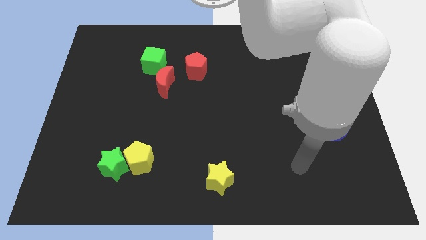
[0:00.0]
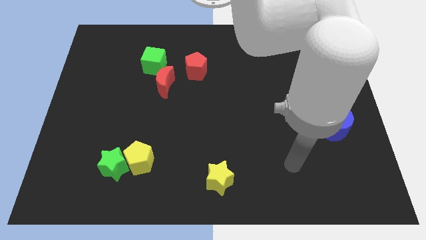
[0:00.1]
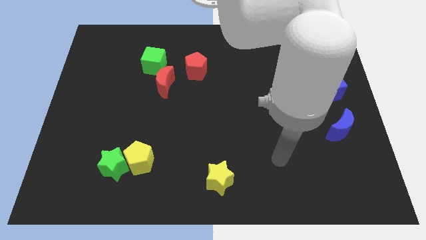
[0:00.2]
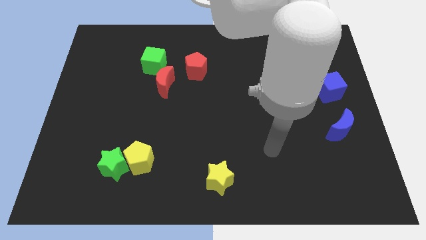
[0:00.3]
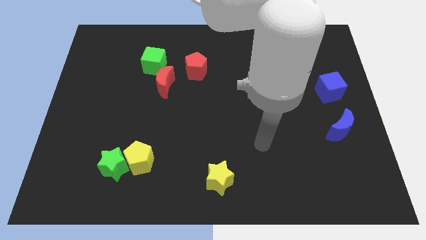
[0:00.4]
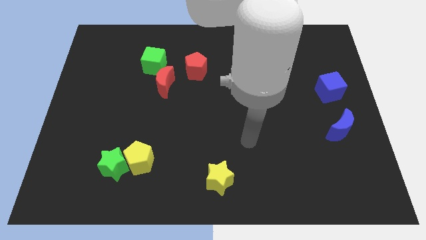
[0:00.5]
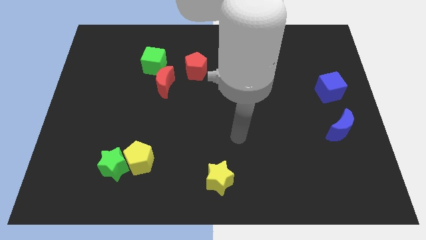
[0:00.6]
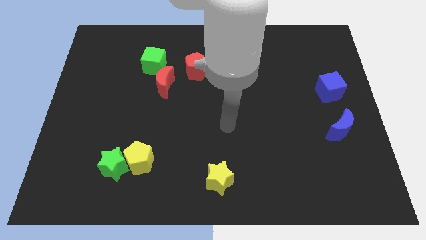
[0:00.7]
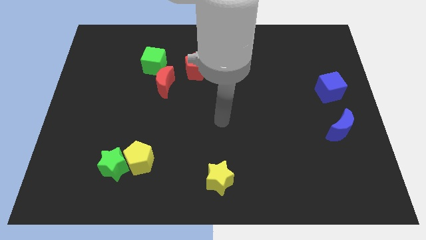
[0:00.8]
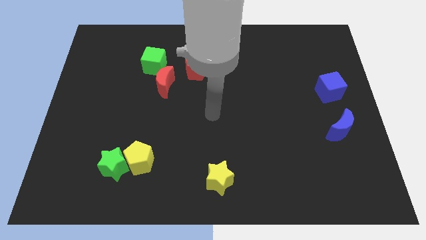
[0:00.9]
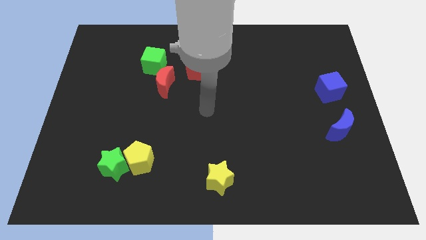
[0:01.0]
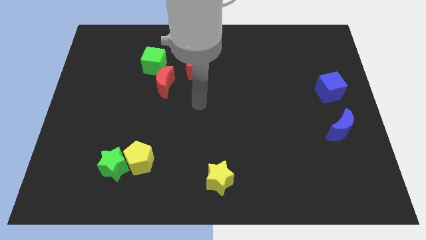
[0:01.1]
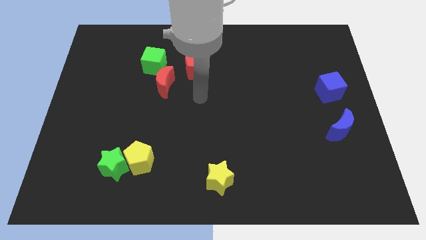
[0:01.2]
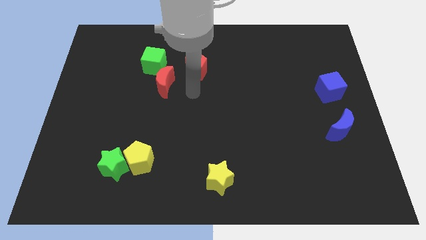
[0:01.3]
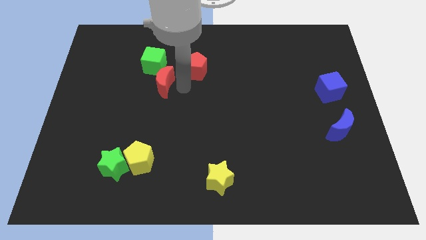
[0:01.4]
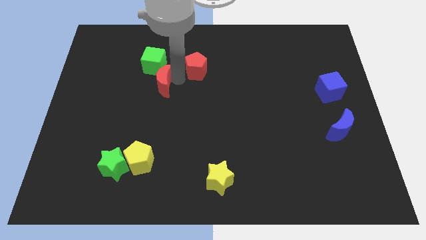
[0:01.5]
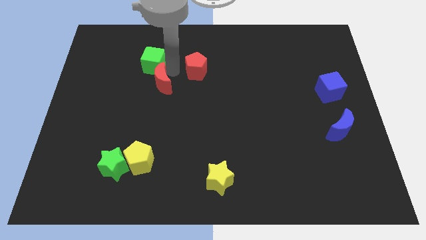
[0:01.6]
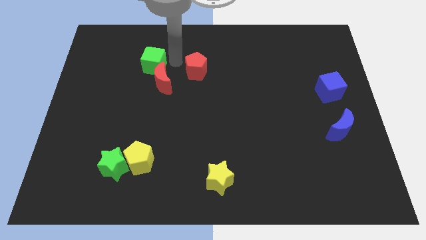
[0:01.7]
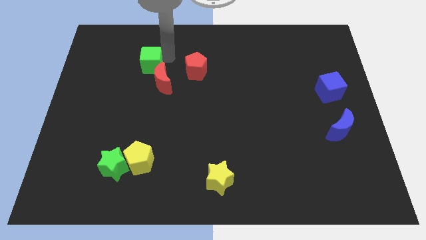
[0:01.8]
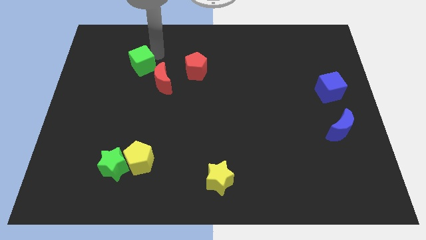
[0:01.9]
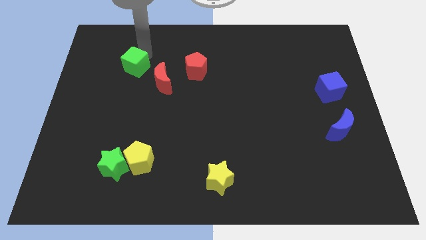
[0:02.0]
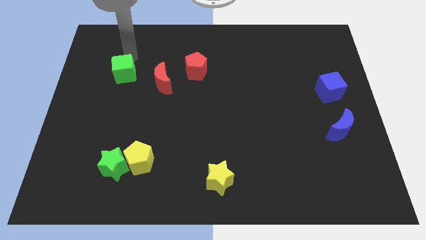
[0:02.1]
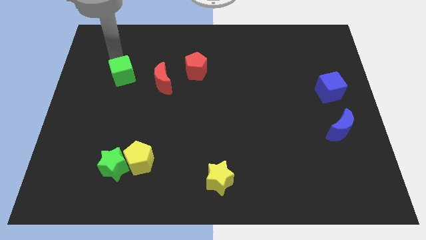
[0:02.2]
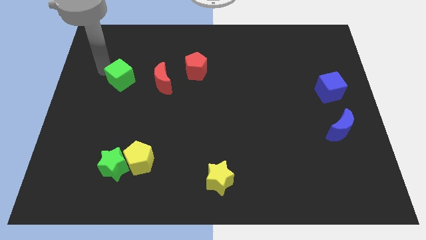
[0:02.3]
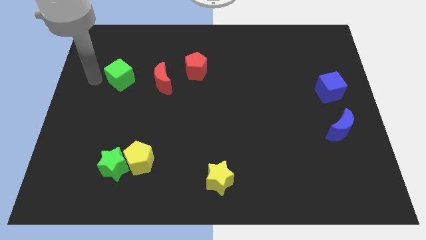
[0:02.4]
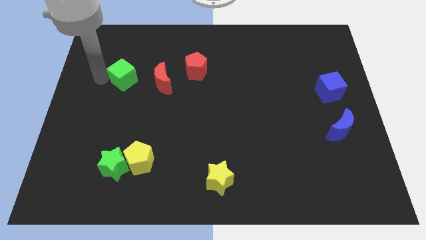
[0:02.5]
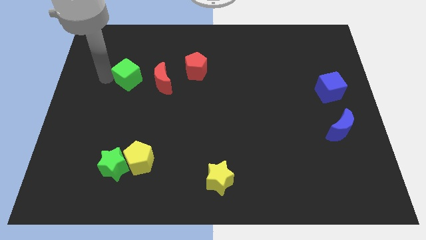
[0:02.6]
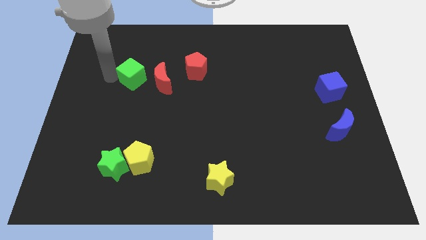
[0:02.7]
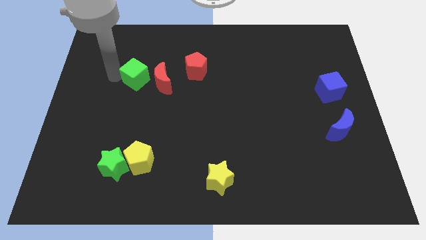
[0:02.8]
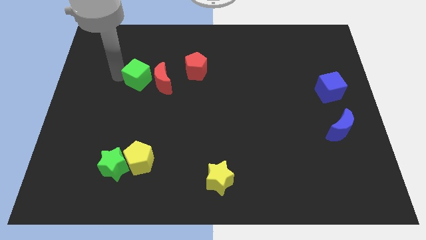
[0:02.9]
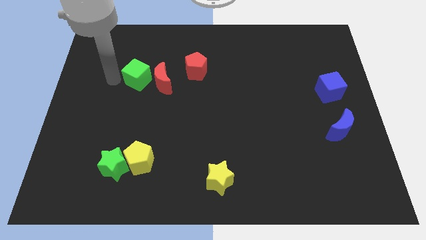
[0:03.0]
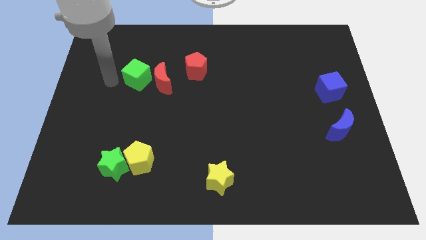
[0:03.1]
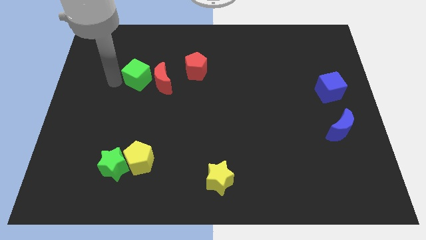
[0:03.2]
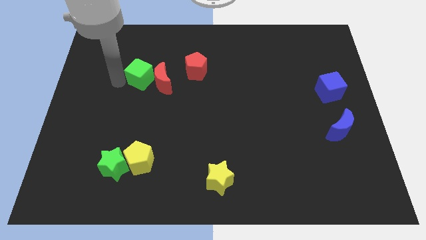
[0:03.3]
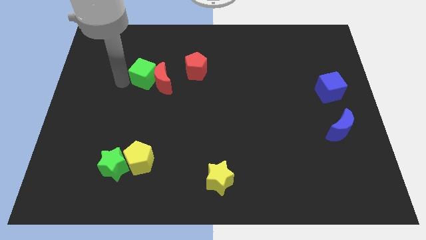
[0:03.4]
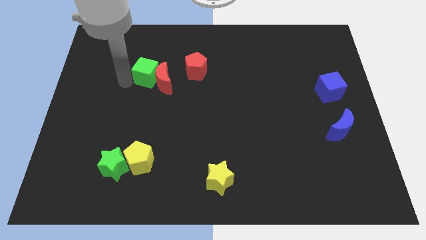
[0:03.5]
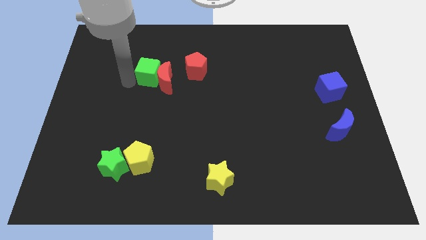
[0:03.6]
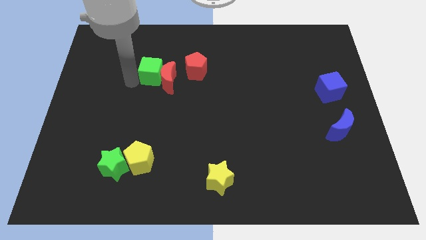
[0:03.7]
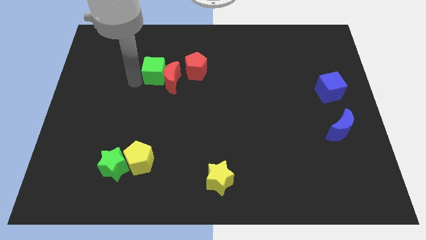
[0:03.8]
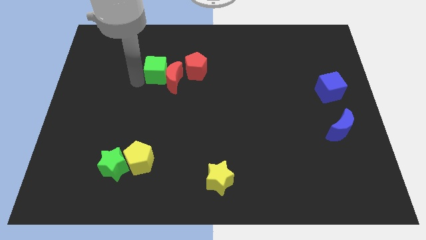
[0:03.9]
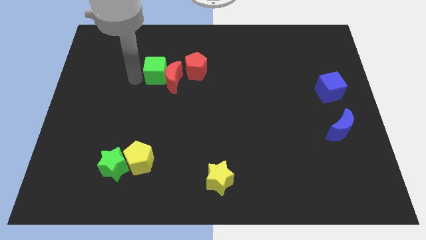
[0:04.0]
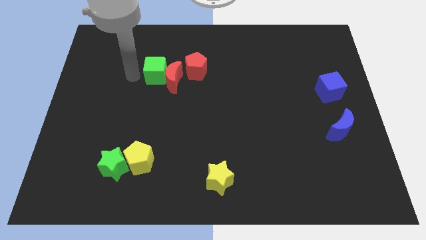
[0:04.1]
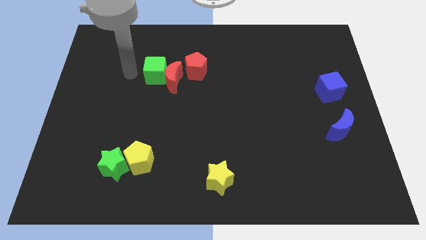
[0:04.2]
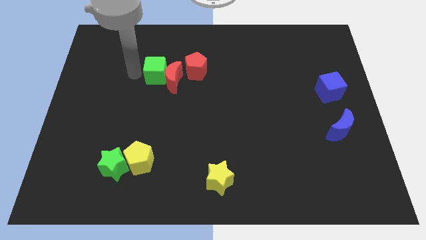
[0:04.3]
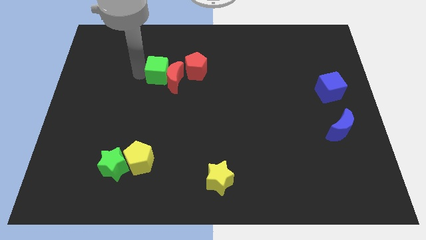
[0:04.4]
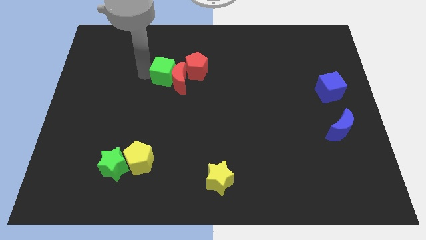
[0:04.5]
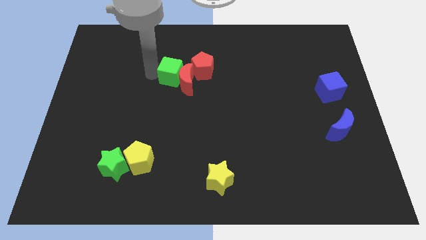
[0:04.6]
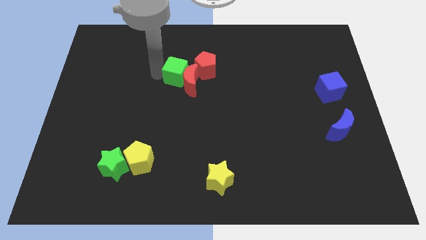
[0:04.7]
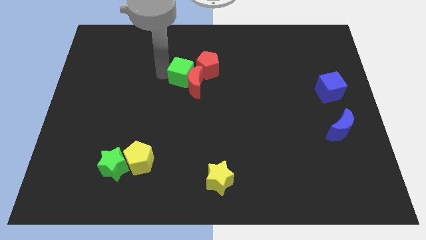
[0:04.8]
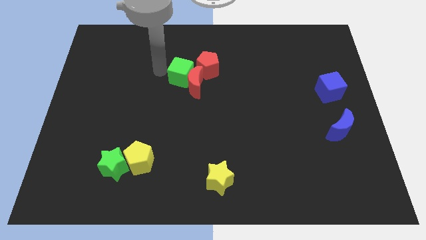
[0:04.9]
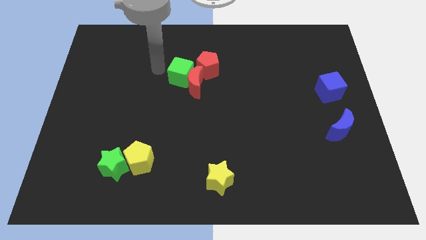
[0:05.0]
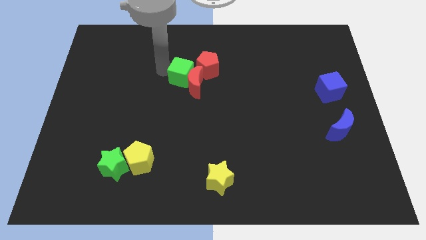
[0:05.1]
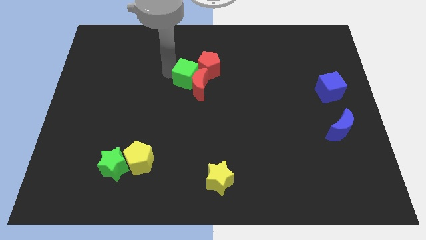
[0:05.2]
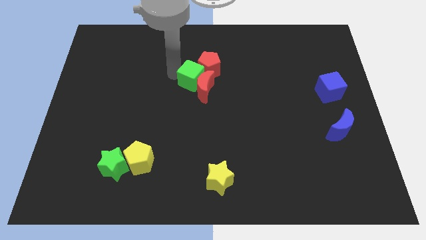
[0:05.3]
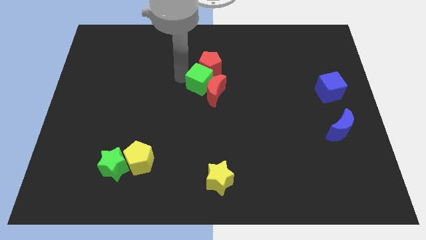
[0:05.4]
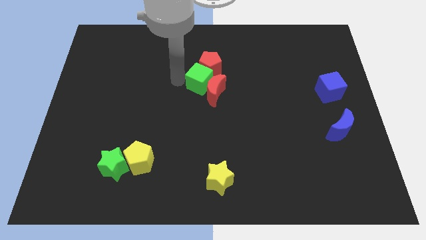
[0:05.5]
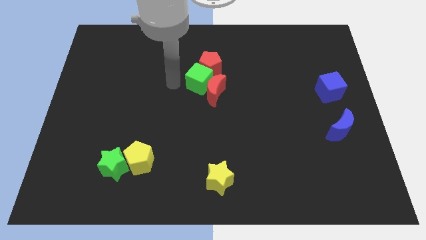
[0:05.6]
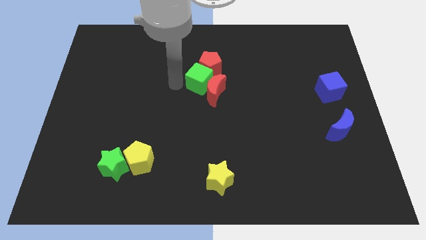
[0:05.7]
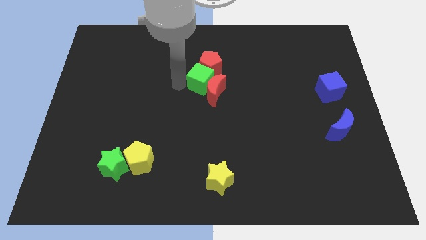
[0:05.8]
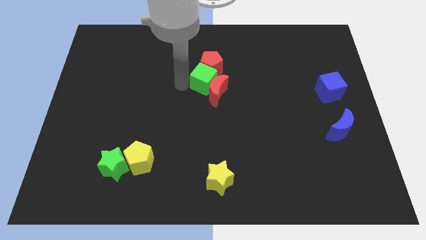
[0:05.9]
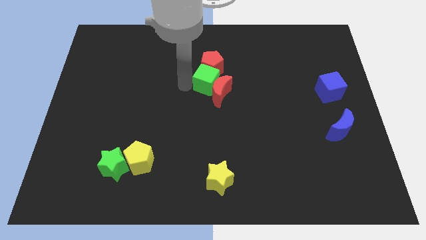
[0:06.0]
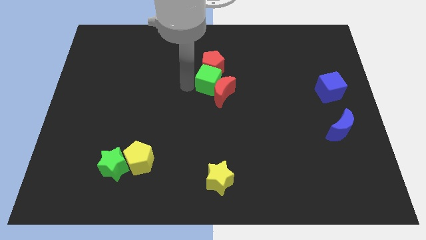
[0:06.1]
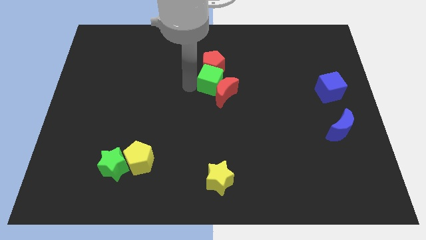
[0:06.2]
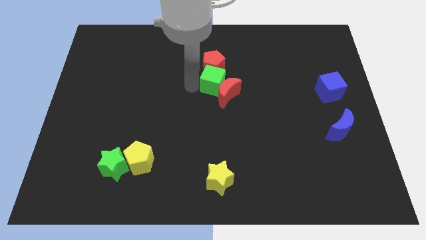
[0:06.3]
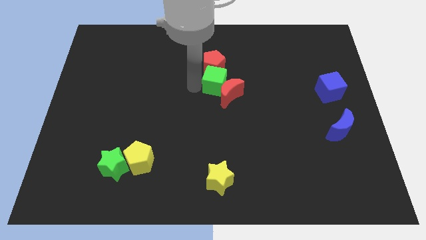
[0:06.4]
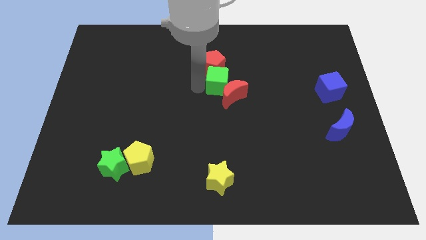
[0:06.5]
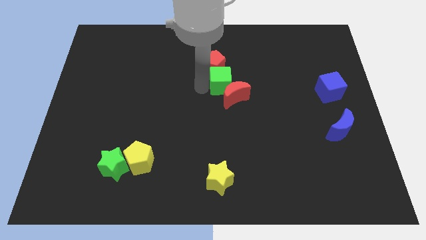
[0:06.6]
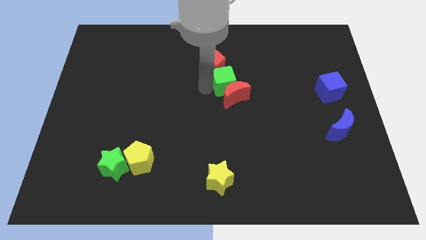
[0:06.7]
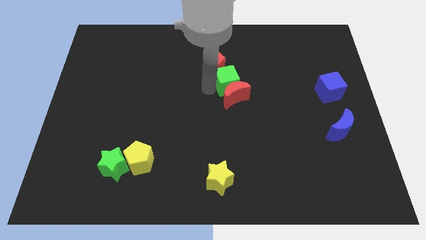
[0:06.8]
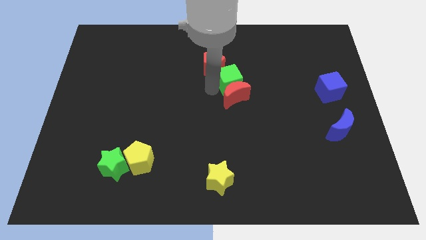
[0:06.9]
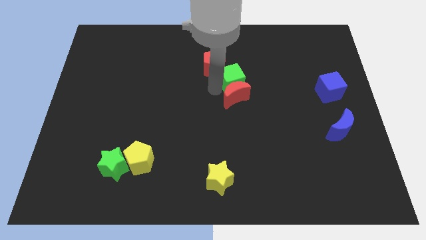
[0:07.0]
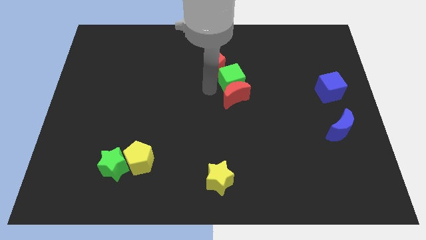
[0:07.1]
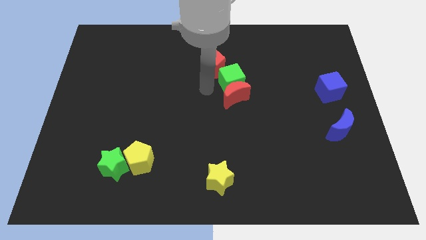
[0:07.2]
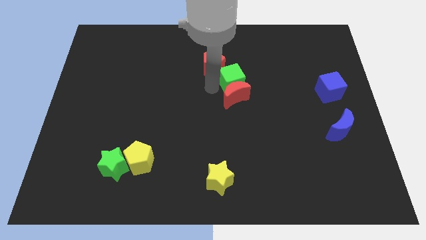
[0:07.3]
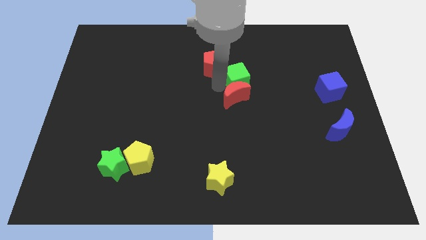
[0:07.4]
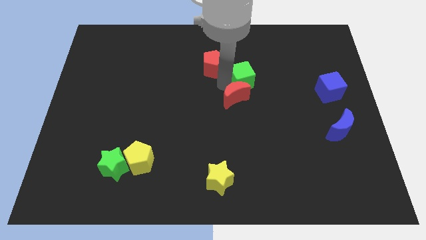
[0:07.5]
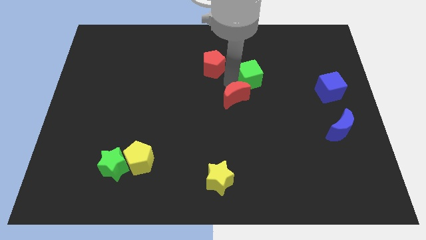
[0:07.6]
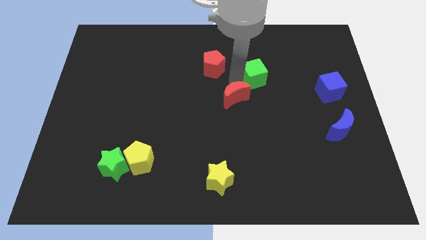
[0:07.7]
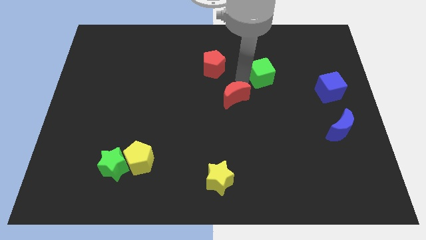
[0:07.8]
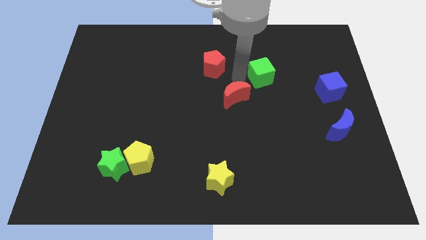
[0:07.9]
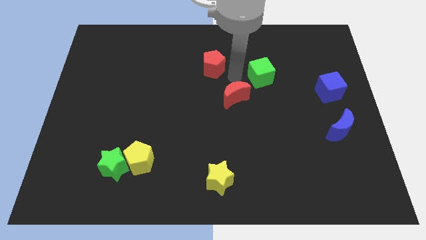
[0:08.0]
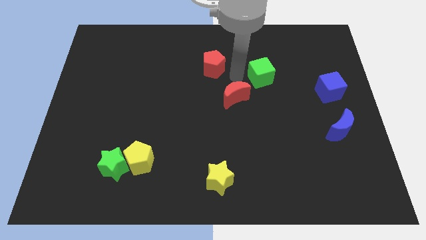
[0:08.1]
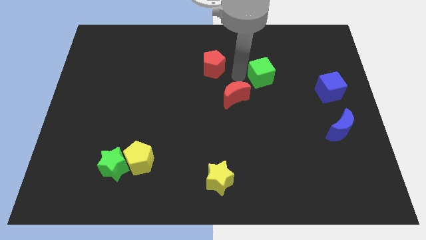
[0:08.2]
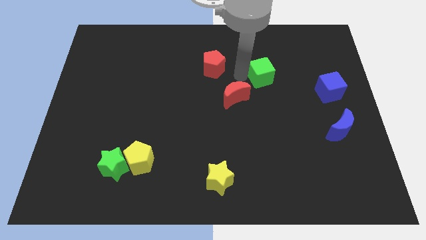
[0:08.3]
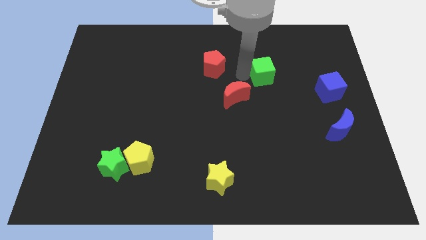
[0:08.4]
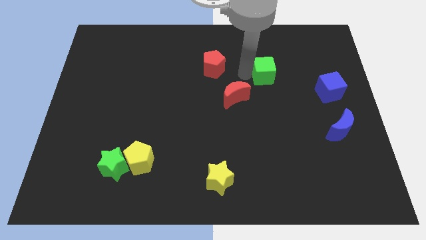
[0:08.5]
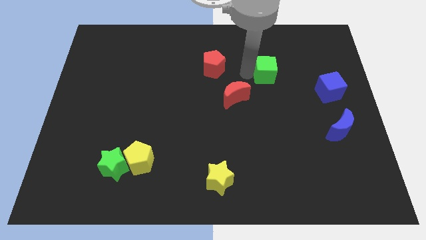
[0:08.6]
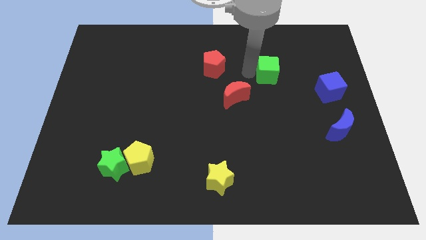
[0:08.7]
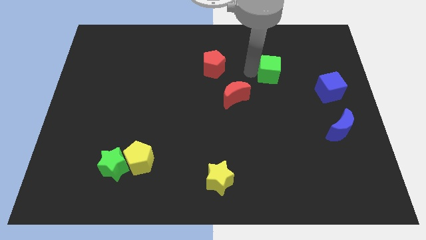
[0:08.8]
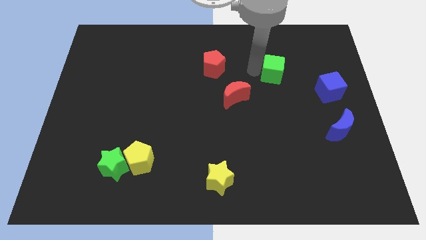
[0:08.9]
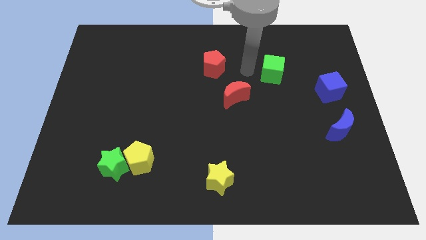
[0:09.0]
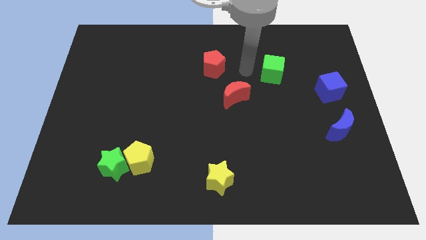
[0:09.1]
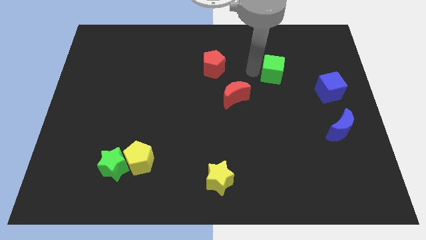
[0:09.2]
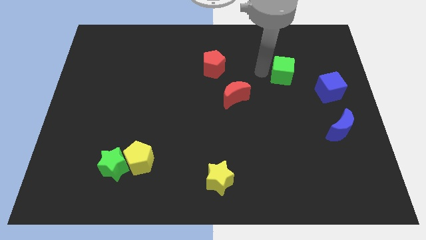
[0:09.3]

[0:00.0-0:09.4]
move the green cube to the top left side of the blue cube
